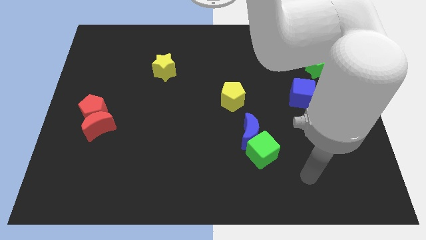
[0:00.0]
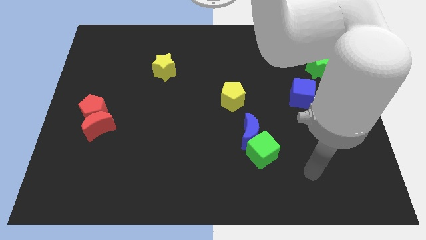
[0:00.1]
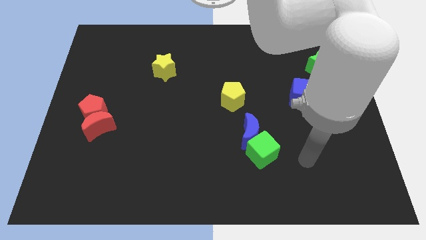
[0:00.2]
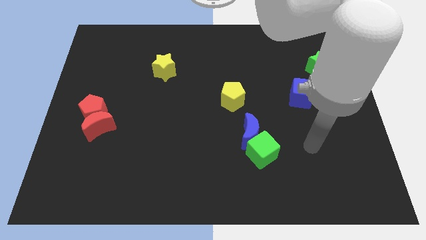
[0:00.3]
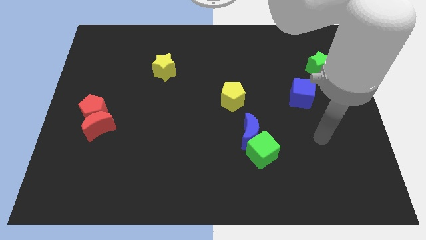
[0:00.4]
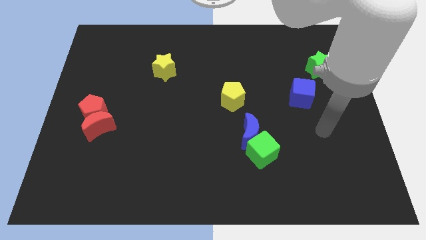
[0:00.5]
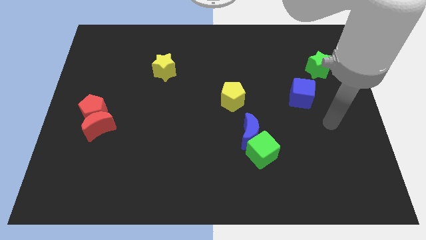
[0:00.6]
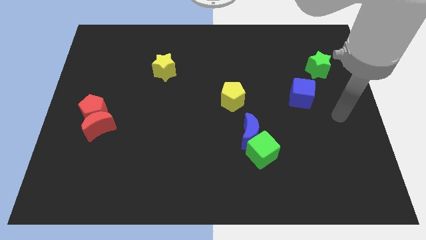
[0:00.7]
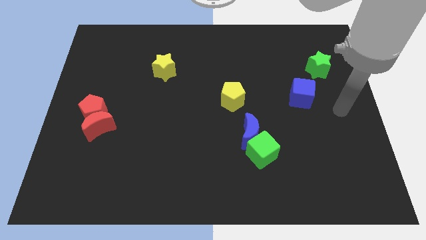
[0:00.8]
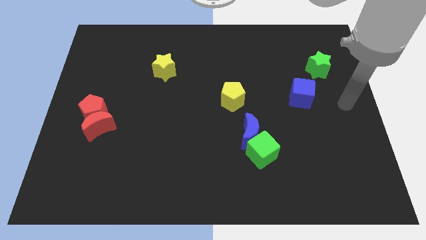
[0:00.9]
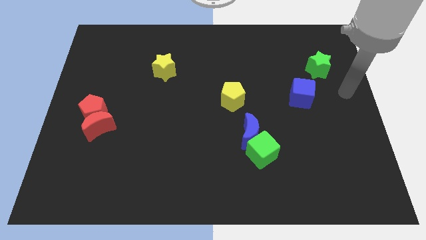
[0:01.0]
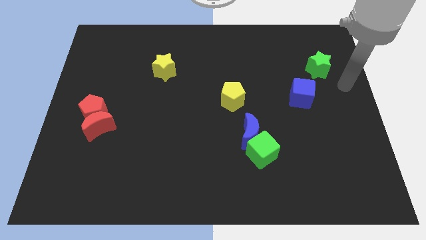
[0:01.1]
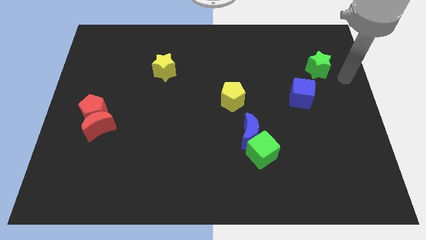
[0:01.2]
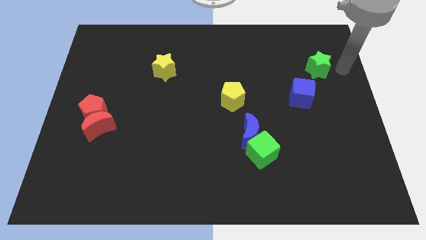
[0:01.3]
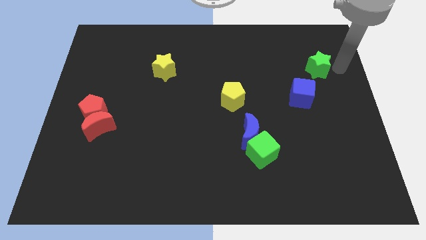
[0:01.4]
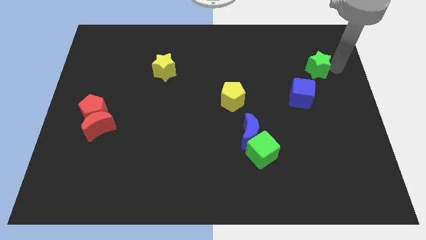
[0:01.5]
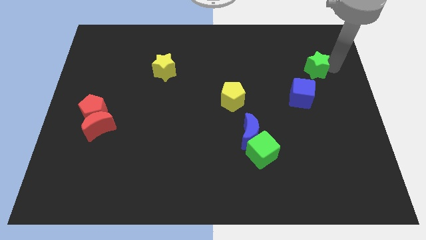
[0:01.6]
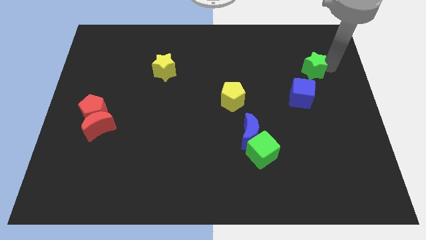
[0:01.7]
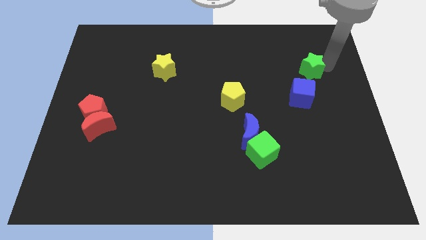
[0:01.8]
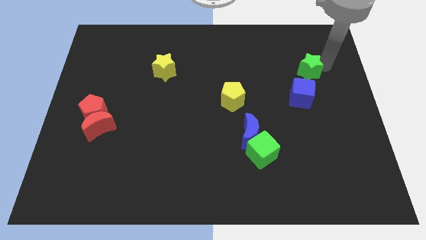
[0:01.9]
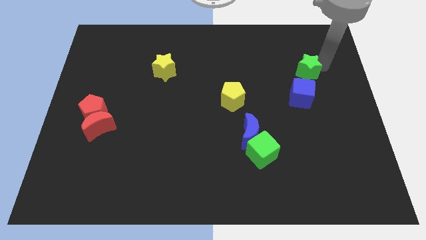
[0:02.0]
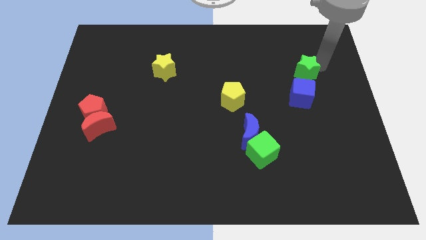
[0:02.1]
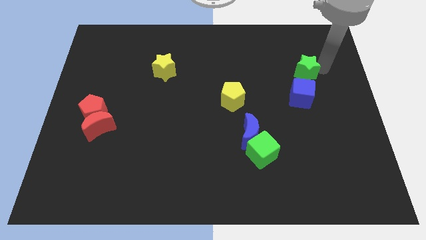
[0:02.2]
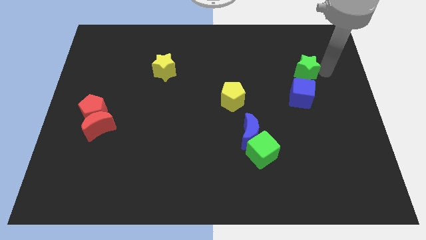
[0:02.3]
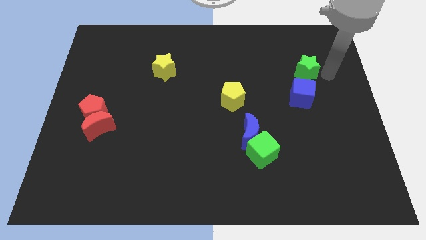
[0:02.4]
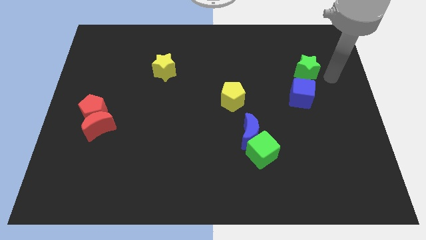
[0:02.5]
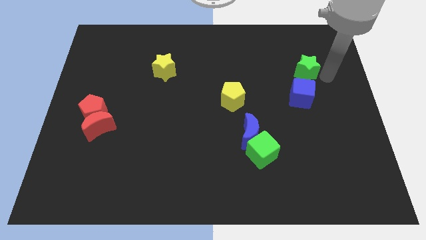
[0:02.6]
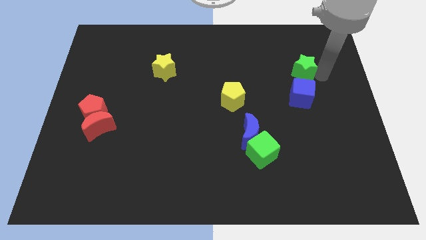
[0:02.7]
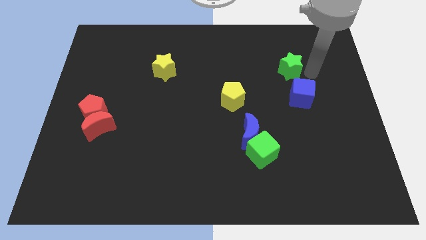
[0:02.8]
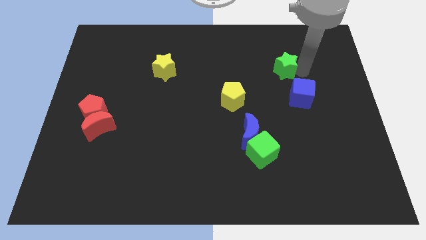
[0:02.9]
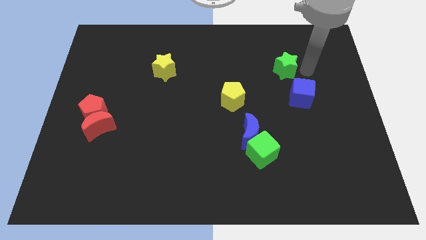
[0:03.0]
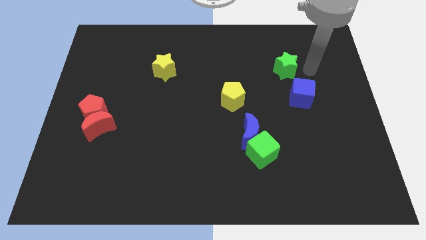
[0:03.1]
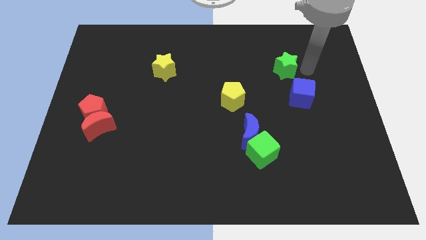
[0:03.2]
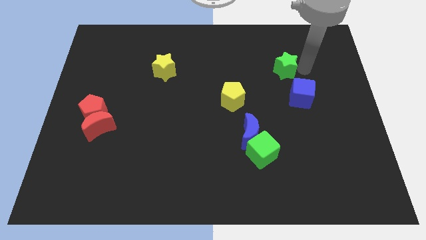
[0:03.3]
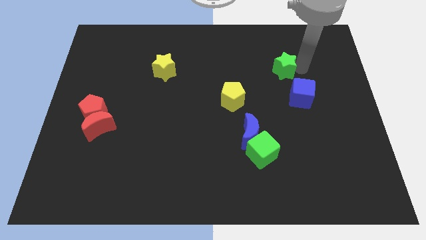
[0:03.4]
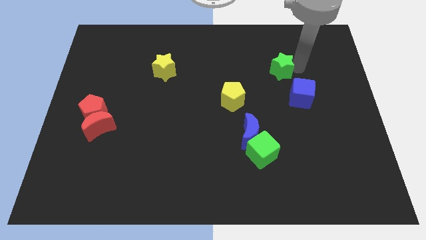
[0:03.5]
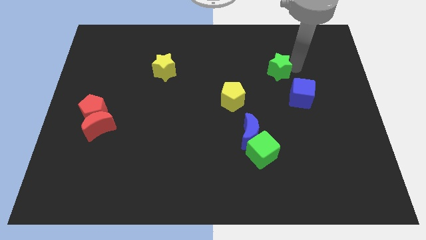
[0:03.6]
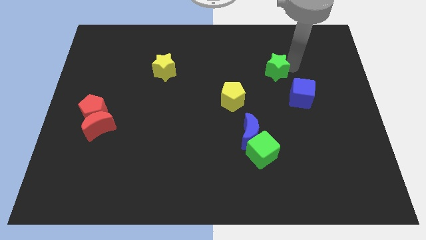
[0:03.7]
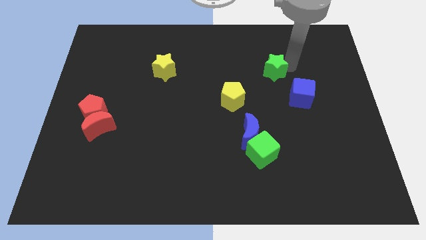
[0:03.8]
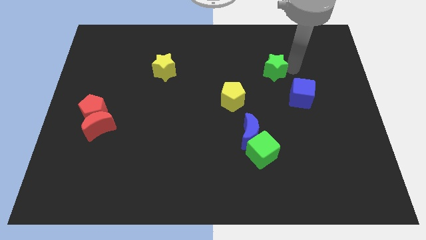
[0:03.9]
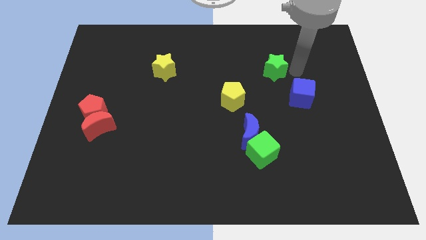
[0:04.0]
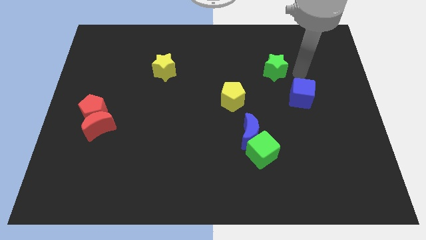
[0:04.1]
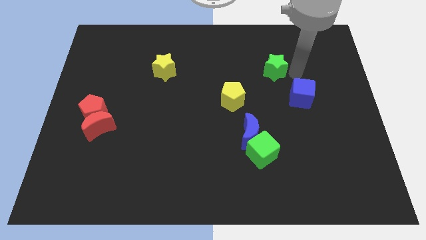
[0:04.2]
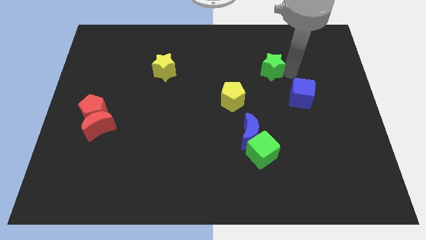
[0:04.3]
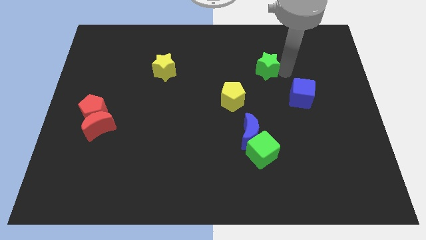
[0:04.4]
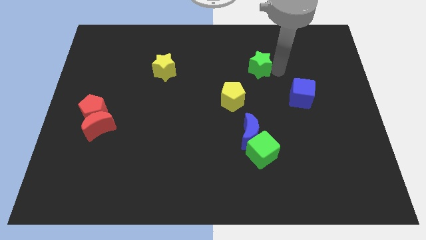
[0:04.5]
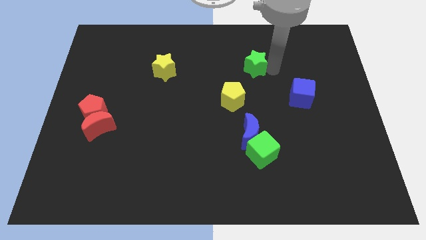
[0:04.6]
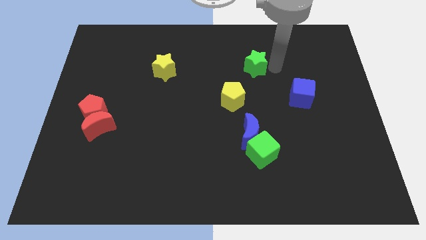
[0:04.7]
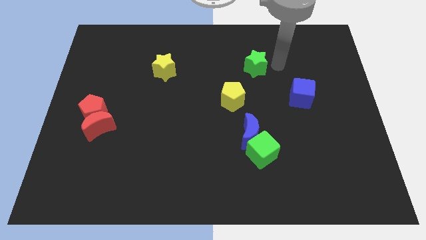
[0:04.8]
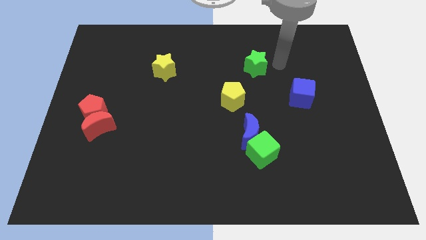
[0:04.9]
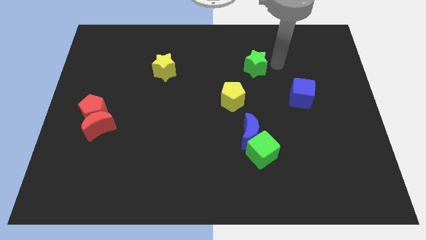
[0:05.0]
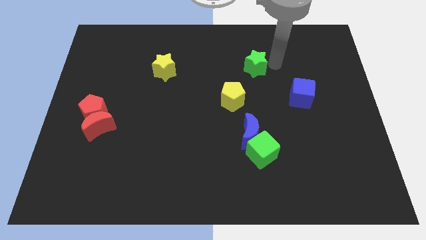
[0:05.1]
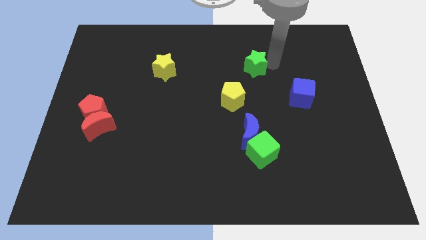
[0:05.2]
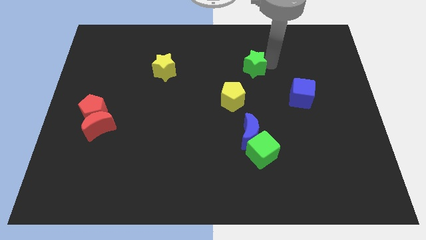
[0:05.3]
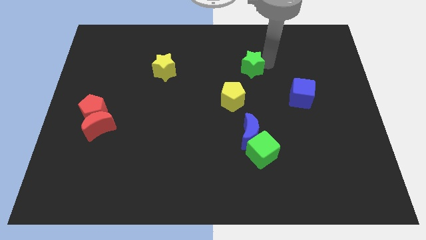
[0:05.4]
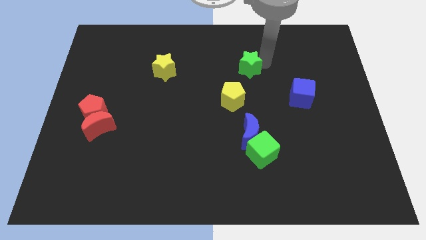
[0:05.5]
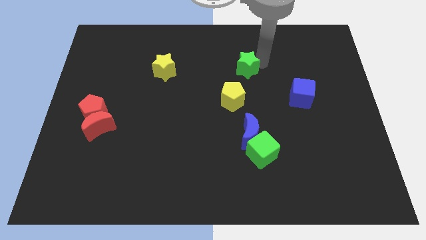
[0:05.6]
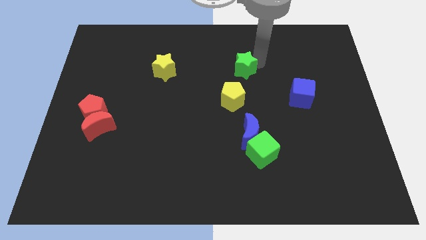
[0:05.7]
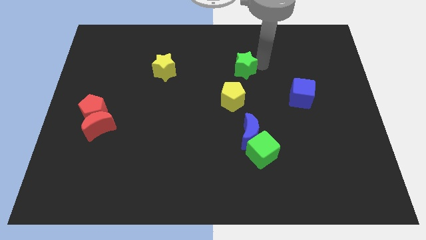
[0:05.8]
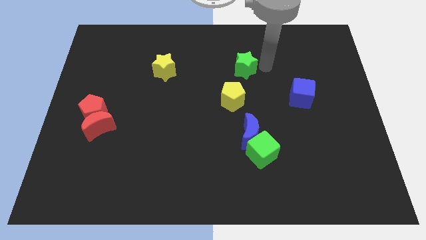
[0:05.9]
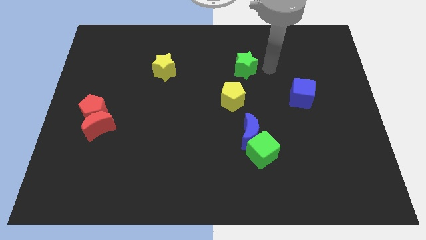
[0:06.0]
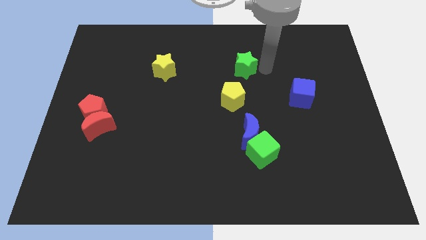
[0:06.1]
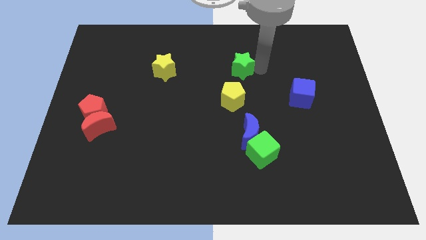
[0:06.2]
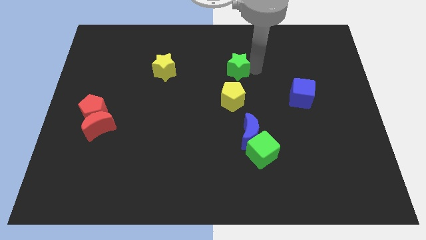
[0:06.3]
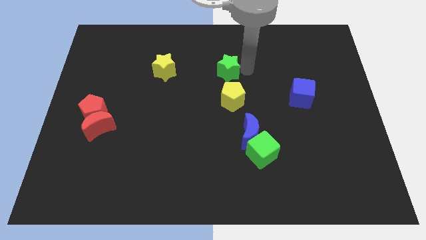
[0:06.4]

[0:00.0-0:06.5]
move the green star to the right of the yellow star

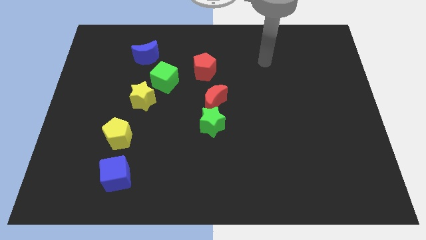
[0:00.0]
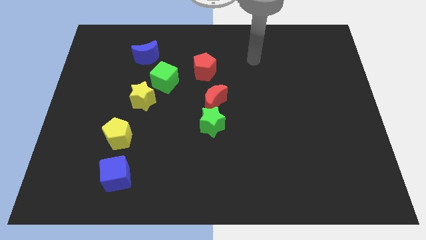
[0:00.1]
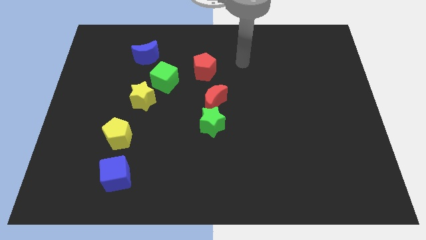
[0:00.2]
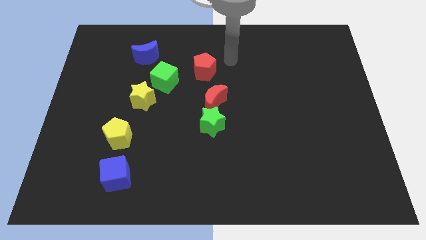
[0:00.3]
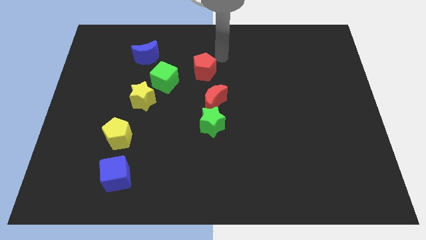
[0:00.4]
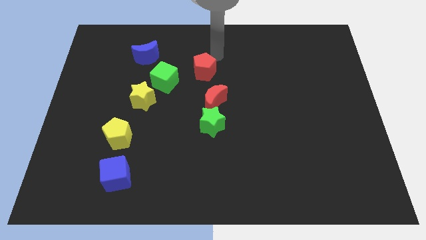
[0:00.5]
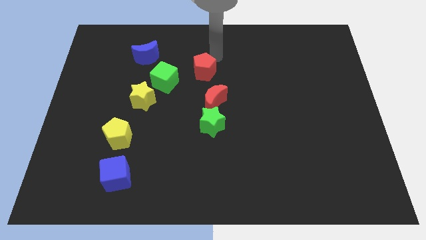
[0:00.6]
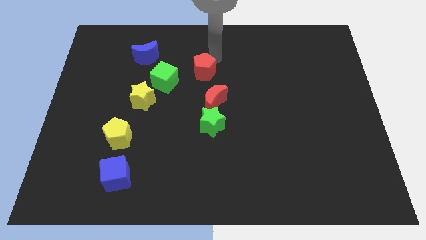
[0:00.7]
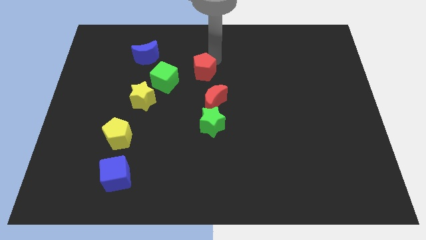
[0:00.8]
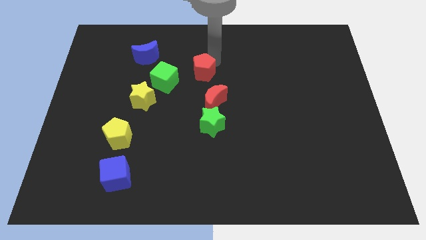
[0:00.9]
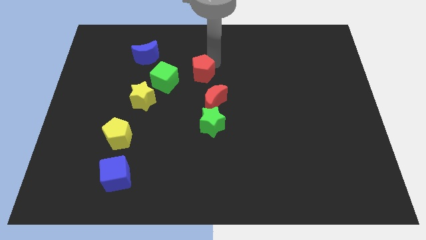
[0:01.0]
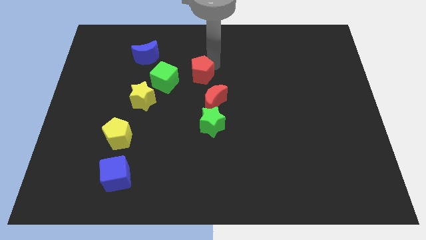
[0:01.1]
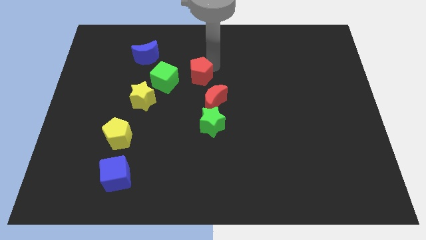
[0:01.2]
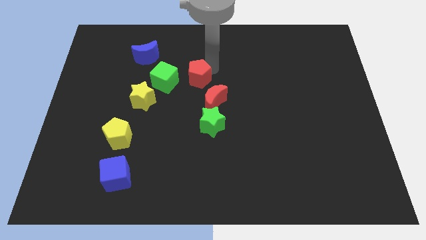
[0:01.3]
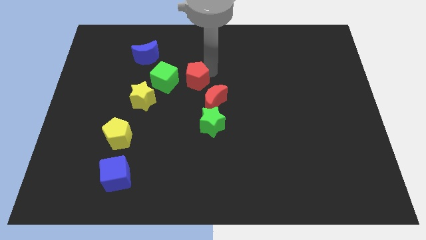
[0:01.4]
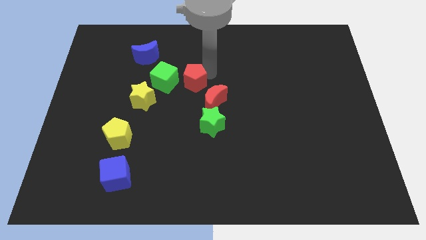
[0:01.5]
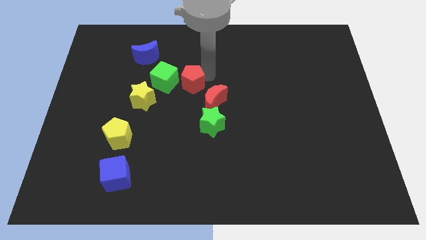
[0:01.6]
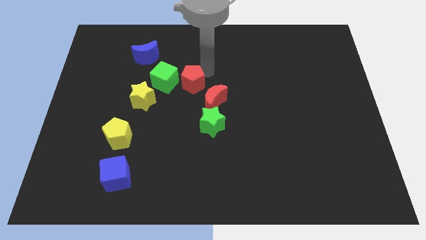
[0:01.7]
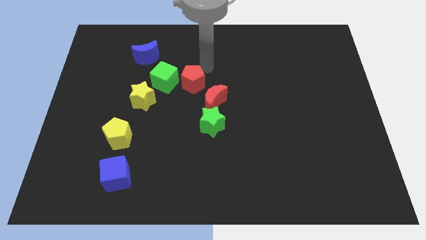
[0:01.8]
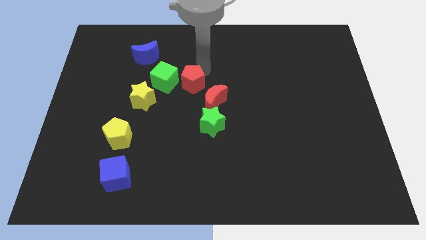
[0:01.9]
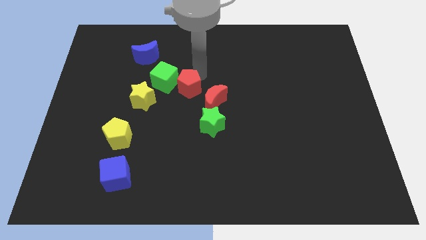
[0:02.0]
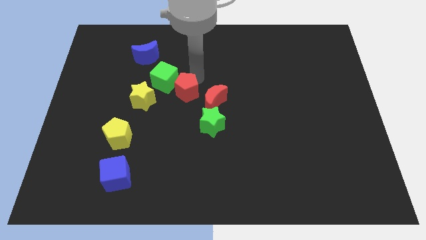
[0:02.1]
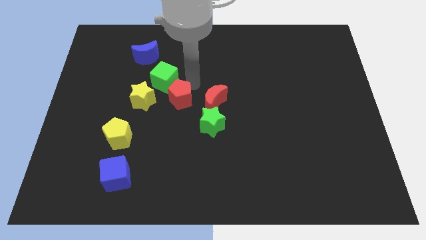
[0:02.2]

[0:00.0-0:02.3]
put the red pentagon below the green cube
